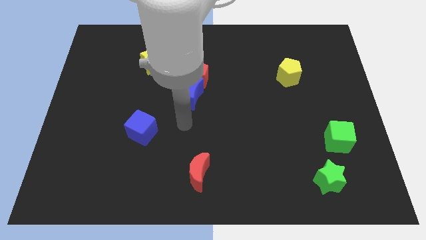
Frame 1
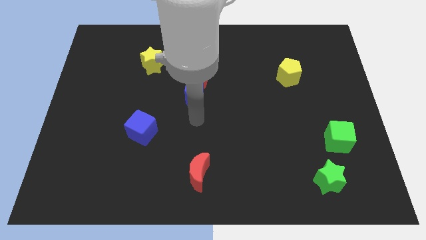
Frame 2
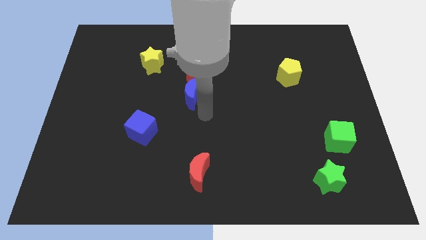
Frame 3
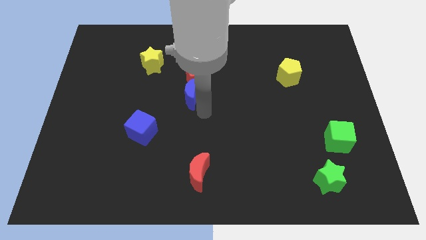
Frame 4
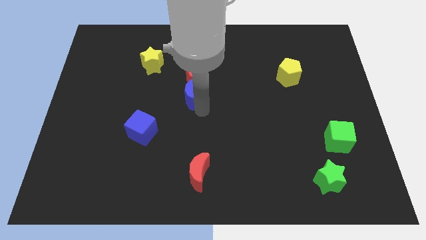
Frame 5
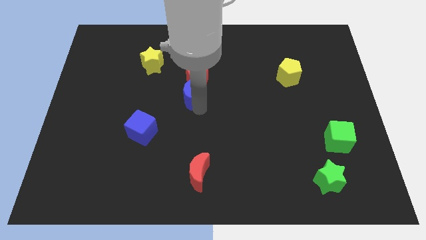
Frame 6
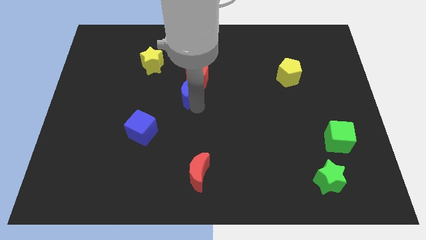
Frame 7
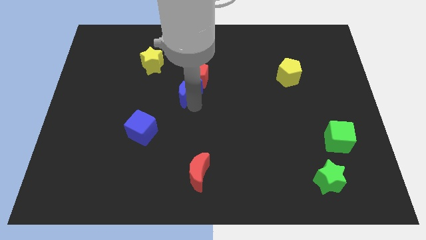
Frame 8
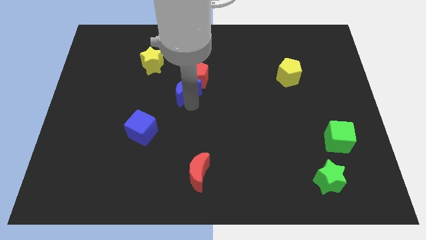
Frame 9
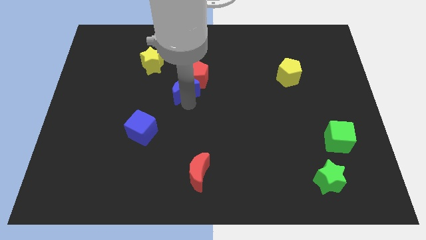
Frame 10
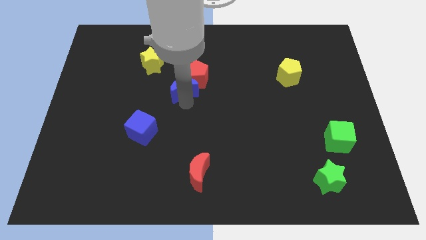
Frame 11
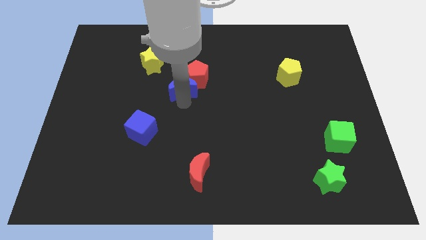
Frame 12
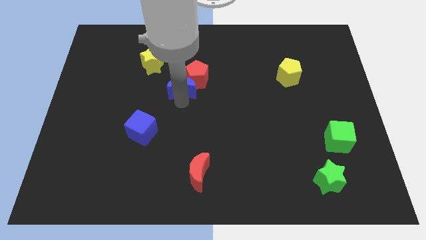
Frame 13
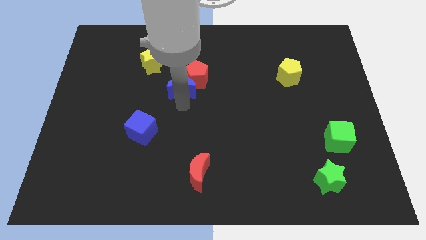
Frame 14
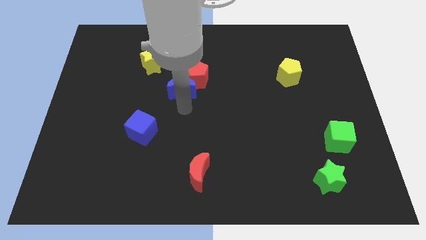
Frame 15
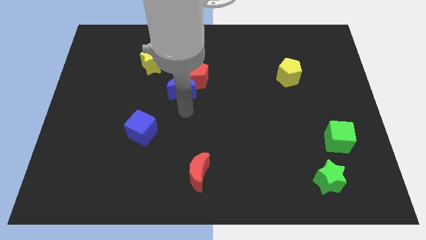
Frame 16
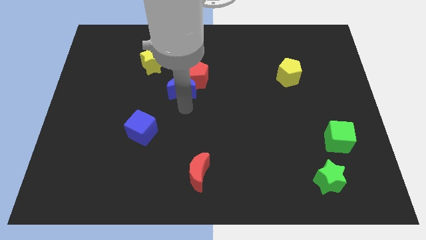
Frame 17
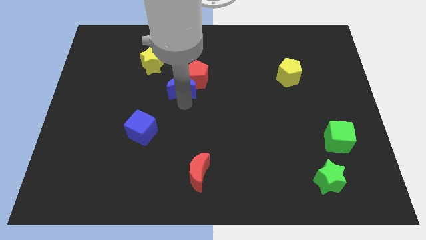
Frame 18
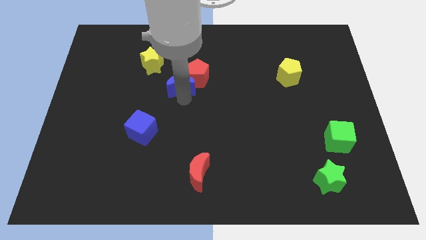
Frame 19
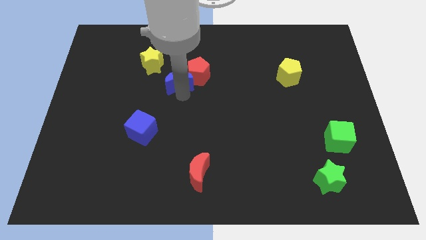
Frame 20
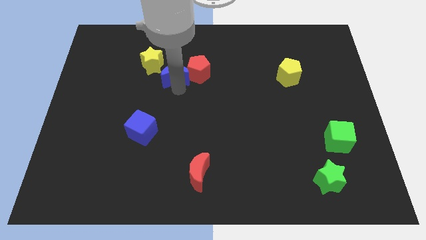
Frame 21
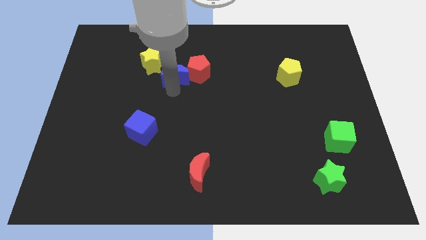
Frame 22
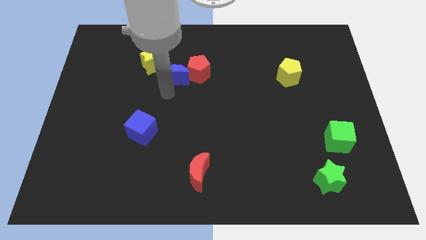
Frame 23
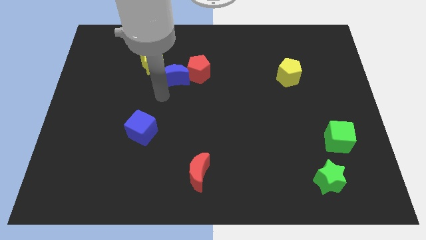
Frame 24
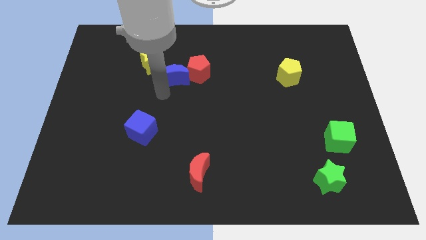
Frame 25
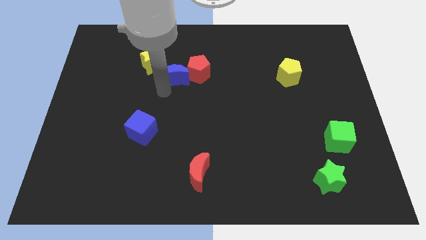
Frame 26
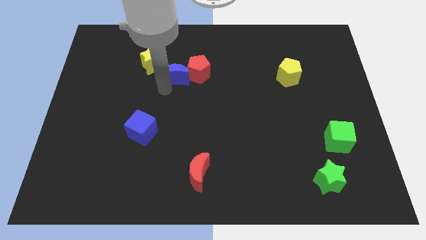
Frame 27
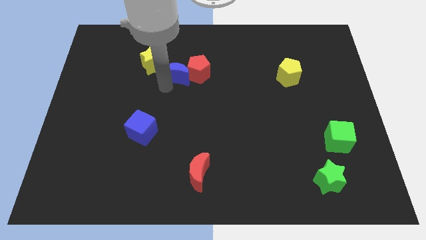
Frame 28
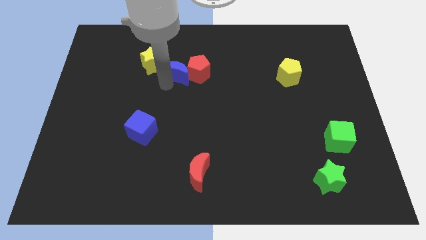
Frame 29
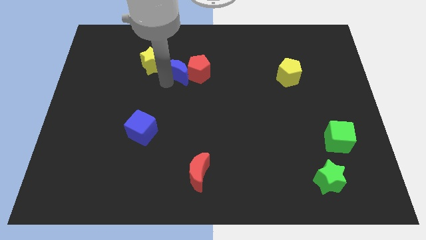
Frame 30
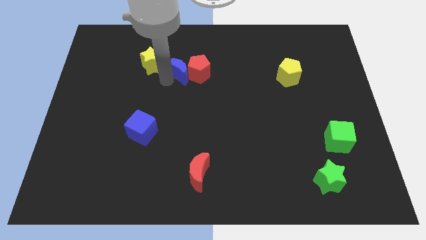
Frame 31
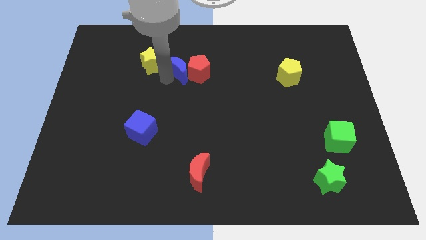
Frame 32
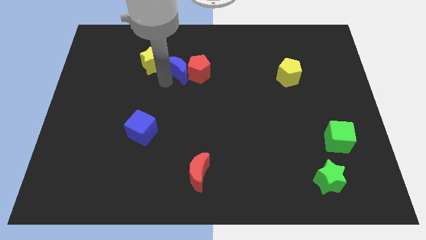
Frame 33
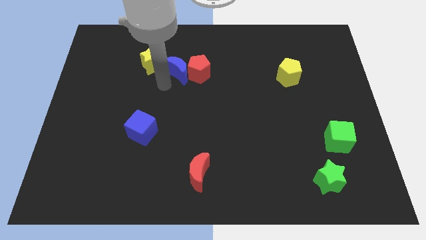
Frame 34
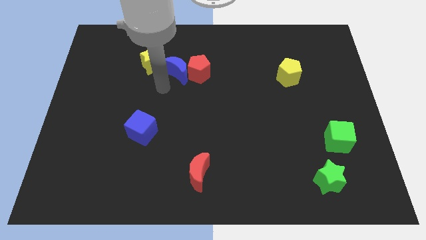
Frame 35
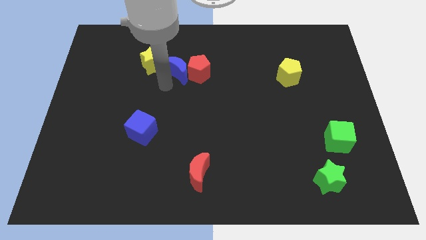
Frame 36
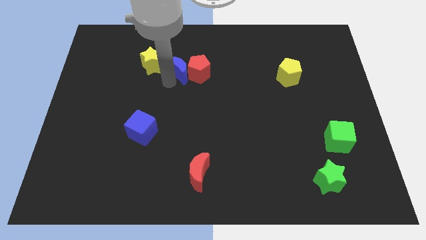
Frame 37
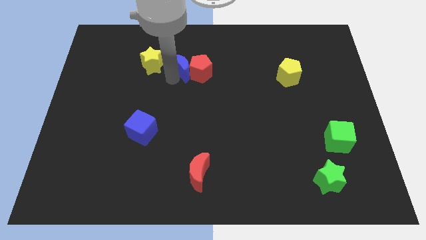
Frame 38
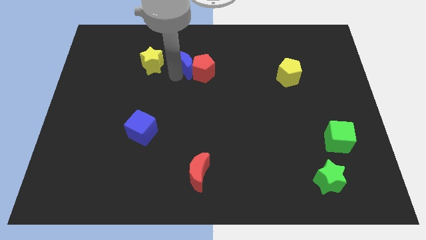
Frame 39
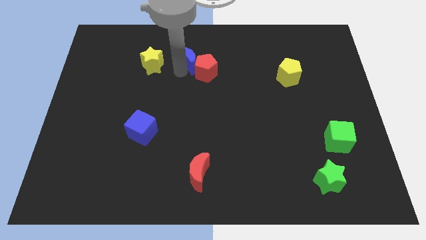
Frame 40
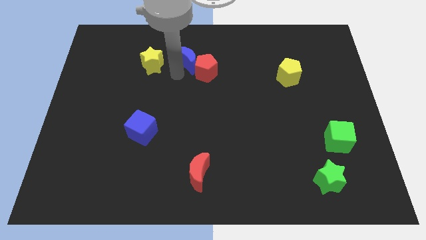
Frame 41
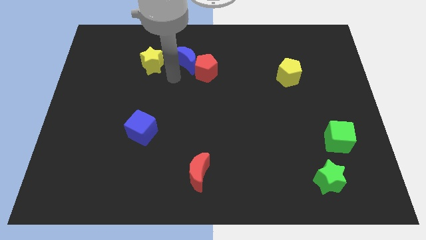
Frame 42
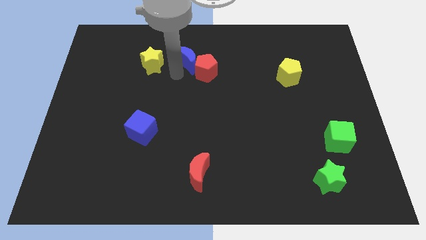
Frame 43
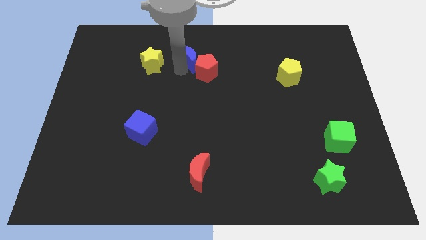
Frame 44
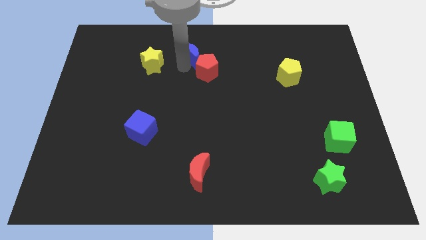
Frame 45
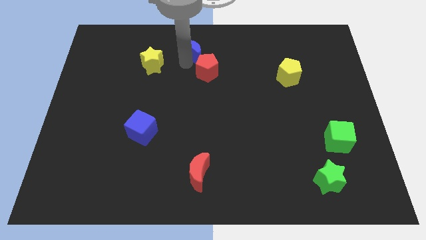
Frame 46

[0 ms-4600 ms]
put the blue moon to the top

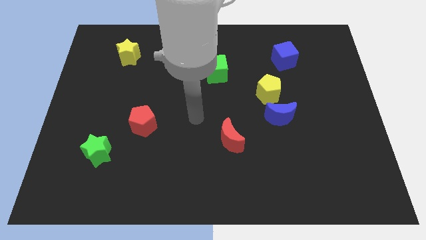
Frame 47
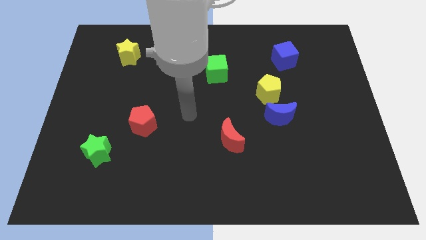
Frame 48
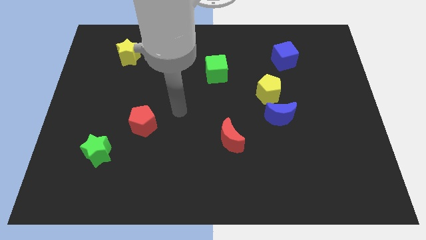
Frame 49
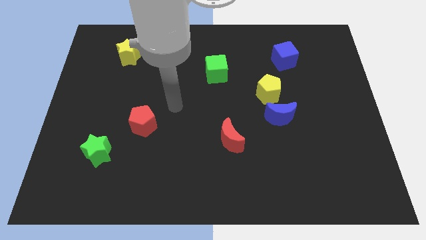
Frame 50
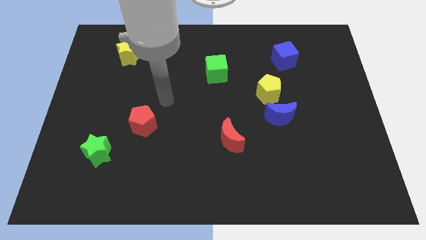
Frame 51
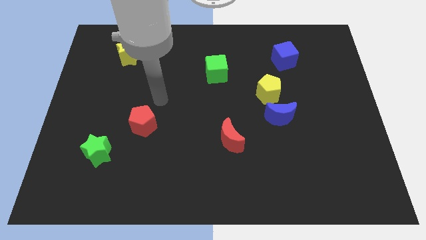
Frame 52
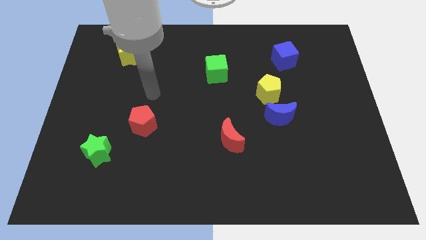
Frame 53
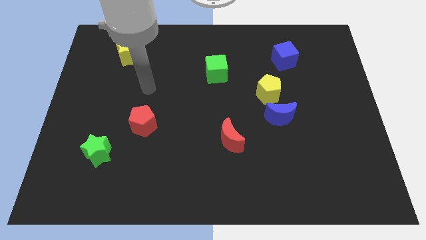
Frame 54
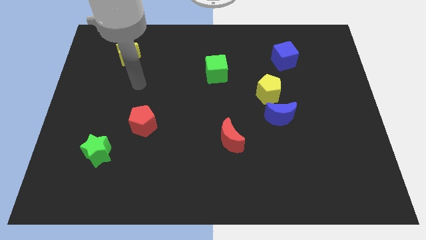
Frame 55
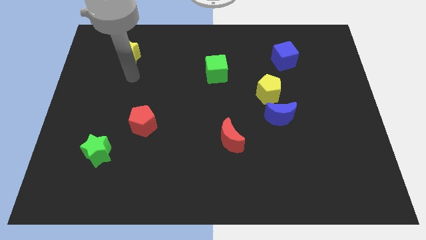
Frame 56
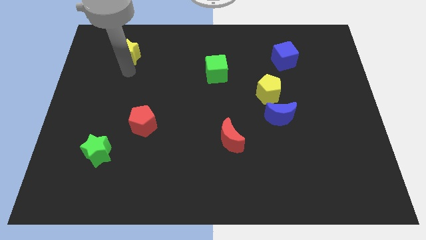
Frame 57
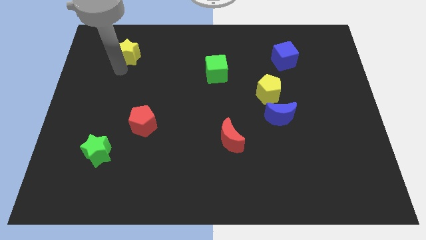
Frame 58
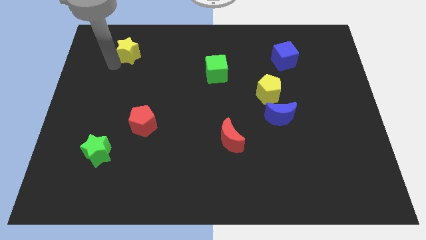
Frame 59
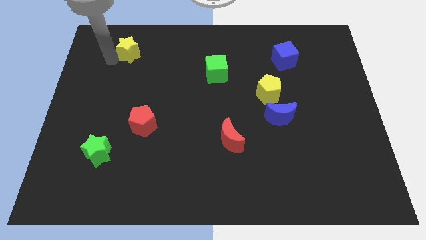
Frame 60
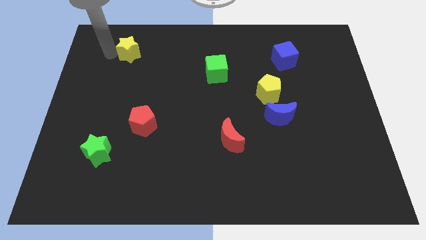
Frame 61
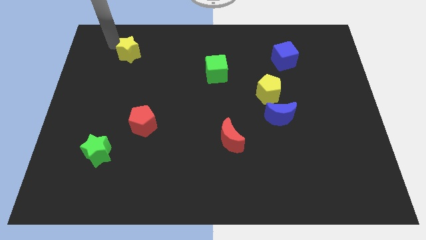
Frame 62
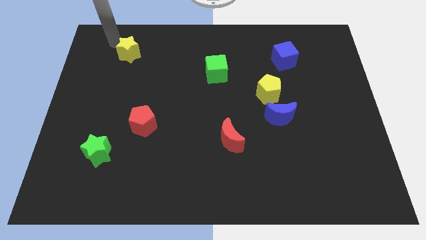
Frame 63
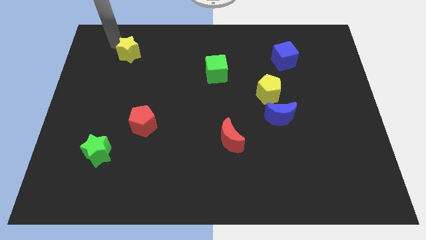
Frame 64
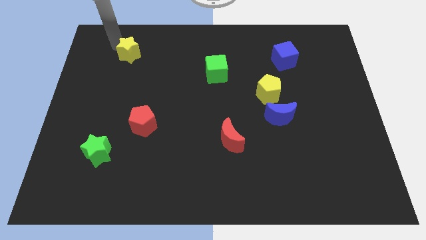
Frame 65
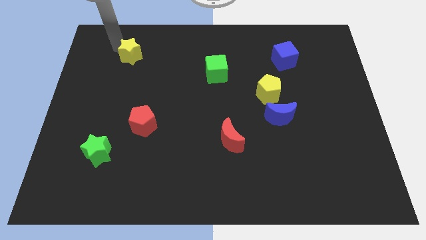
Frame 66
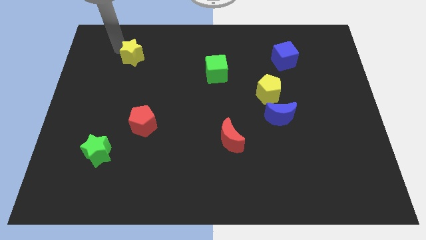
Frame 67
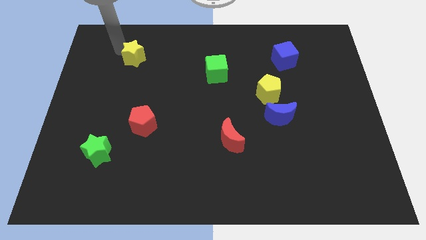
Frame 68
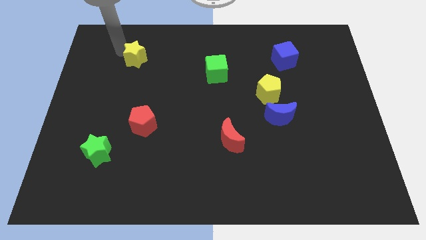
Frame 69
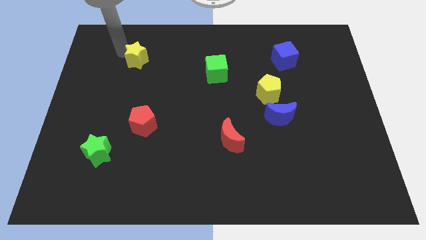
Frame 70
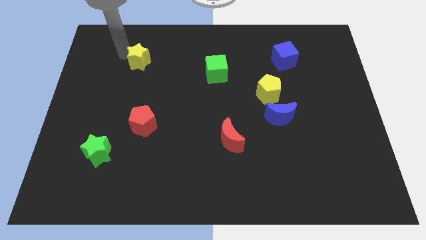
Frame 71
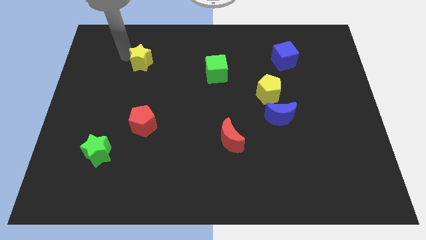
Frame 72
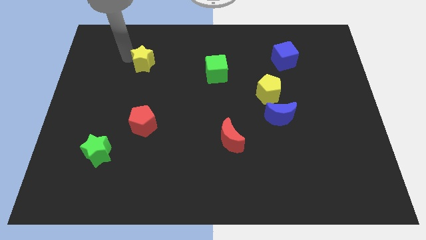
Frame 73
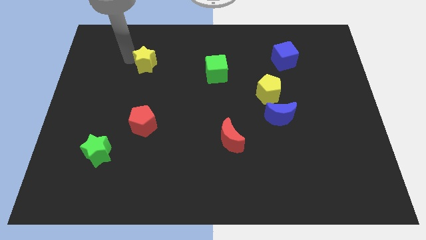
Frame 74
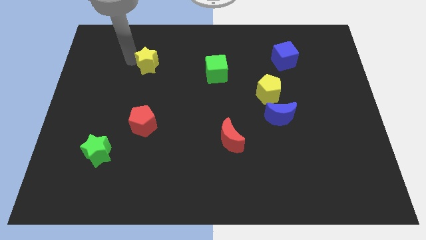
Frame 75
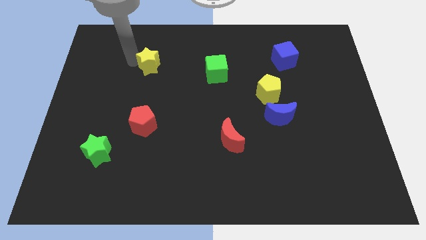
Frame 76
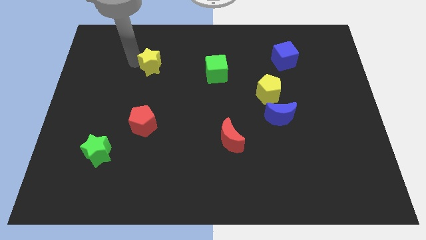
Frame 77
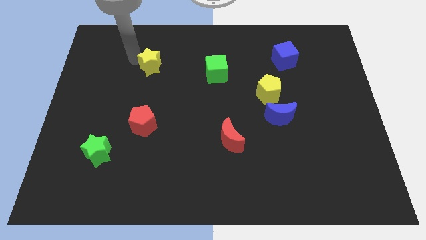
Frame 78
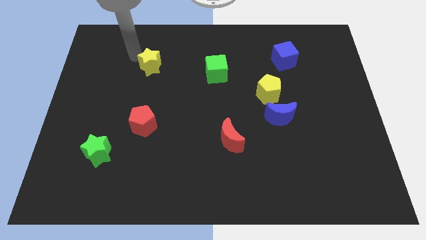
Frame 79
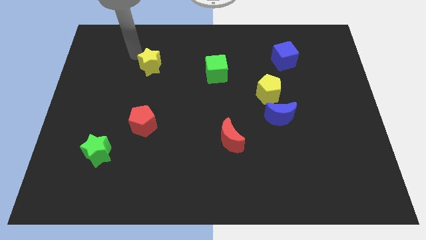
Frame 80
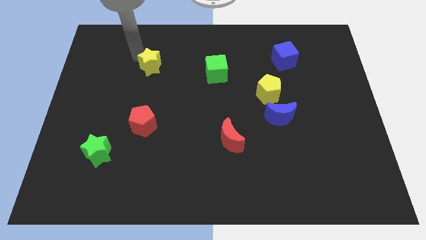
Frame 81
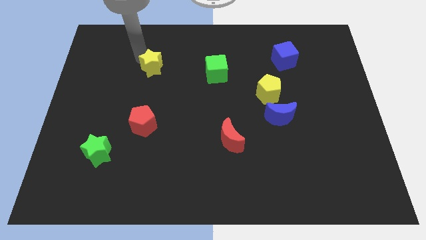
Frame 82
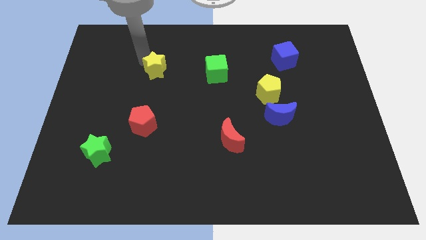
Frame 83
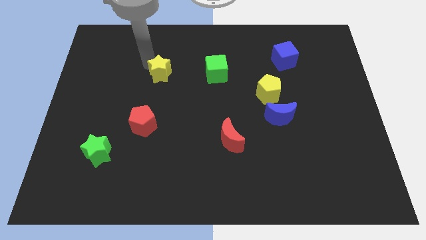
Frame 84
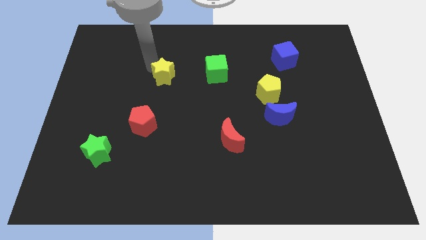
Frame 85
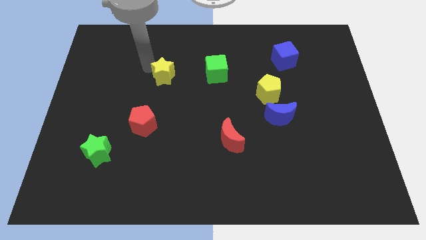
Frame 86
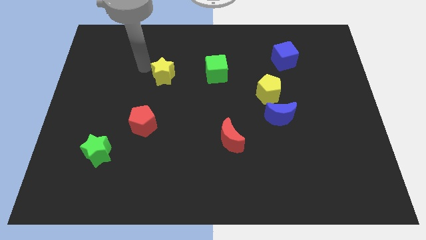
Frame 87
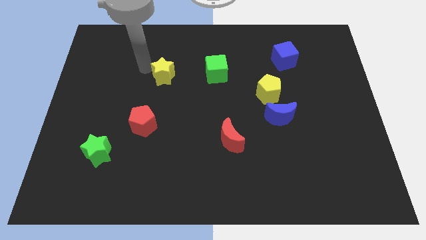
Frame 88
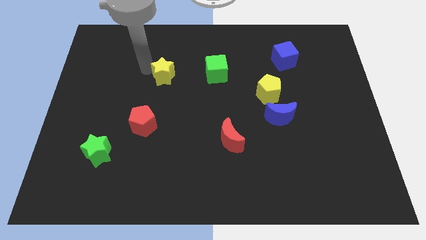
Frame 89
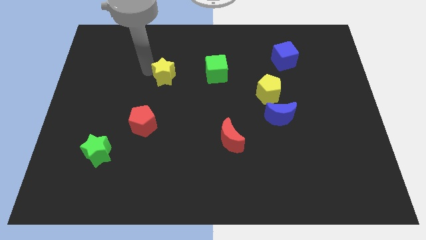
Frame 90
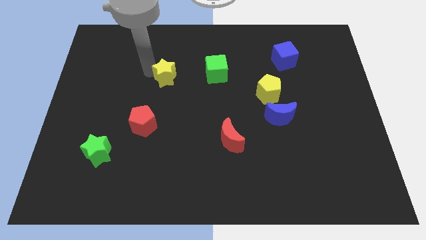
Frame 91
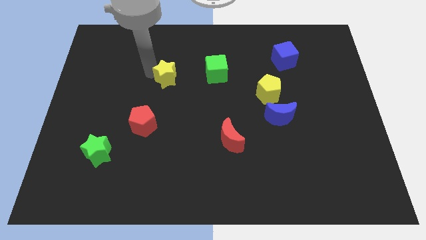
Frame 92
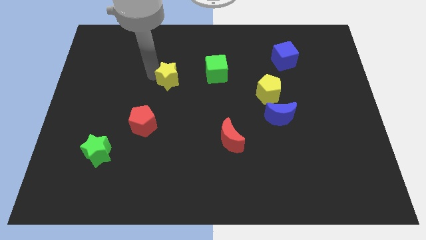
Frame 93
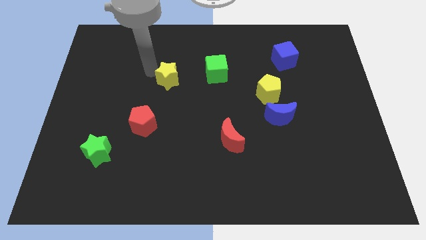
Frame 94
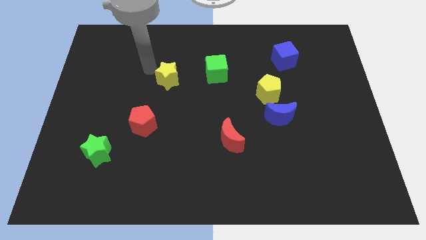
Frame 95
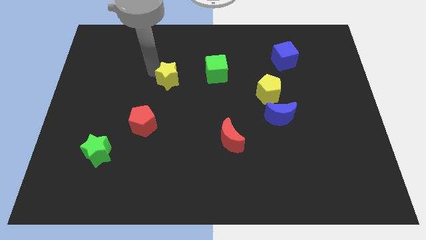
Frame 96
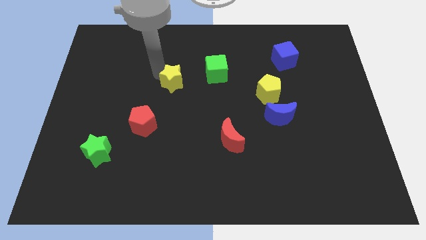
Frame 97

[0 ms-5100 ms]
put the yellow star to the center
